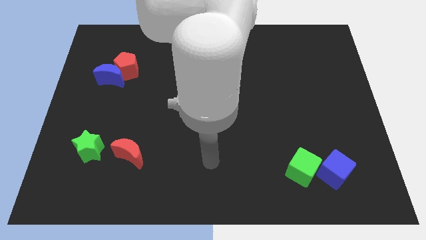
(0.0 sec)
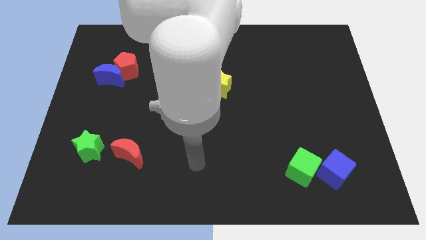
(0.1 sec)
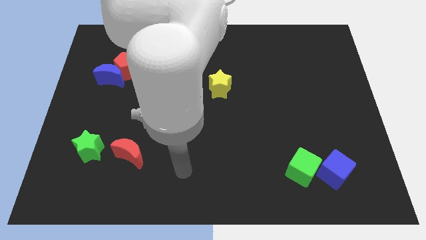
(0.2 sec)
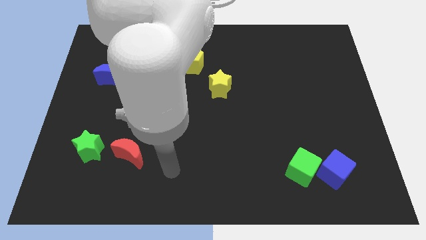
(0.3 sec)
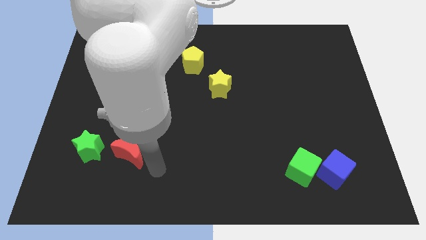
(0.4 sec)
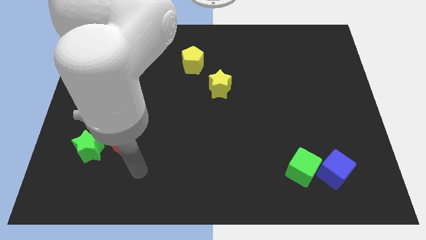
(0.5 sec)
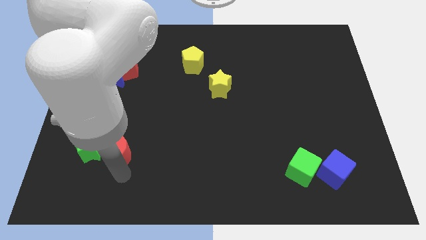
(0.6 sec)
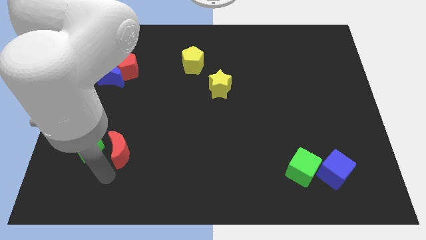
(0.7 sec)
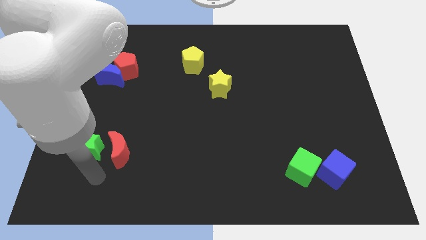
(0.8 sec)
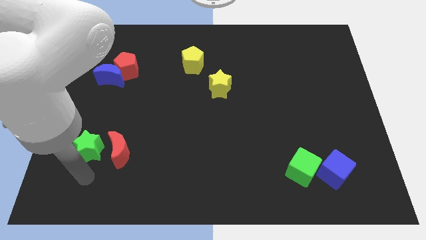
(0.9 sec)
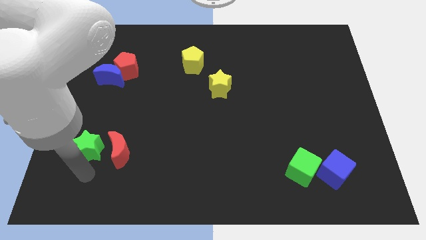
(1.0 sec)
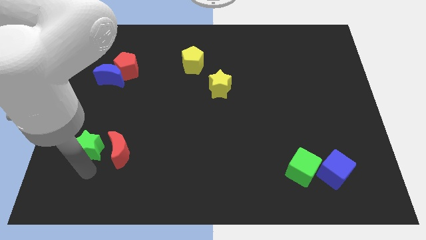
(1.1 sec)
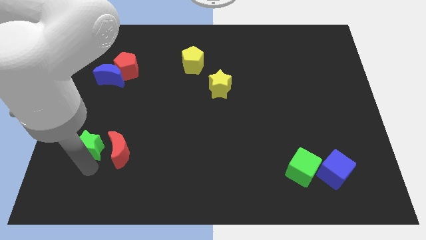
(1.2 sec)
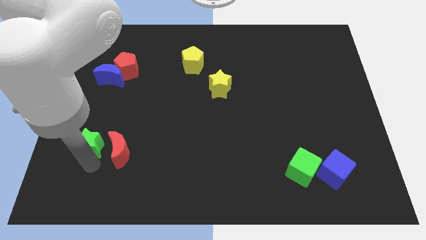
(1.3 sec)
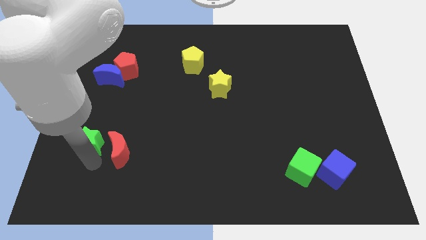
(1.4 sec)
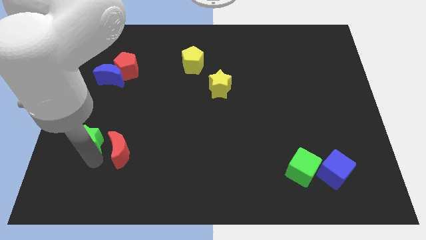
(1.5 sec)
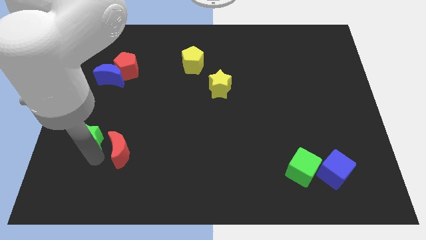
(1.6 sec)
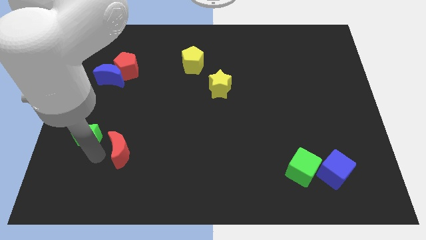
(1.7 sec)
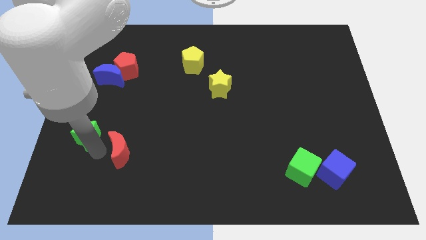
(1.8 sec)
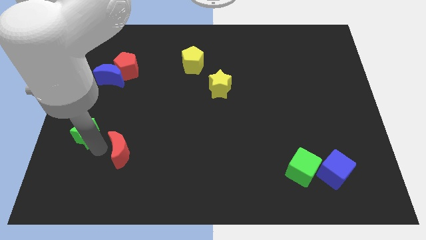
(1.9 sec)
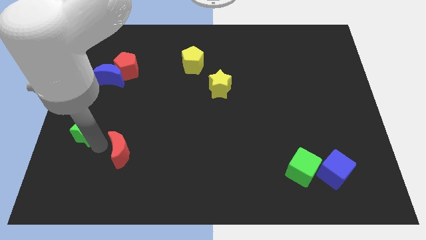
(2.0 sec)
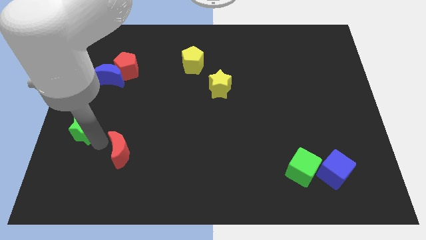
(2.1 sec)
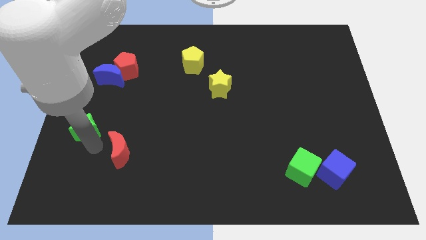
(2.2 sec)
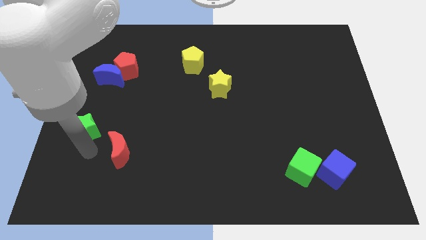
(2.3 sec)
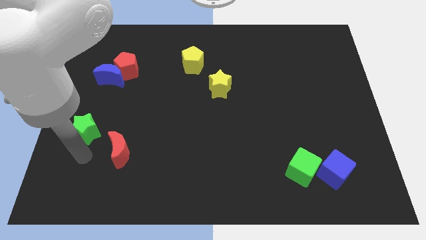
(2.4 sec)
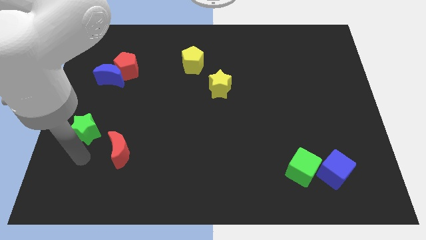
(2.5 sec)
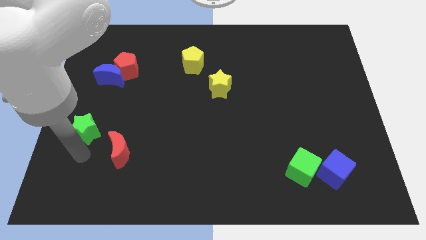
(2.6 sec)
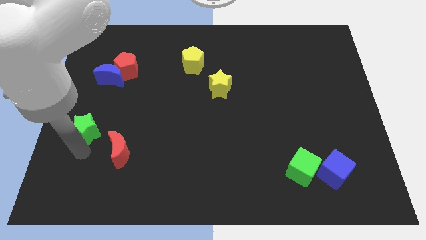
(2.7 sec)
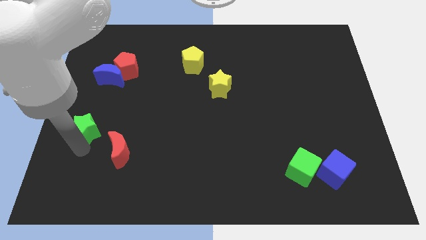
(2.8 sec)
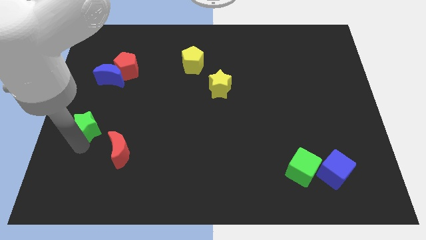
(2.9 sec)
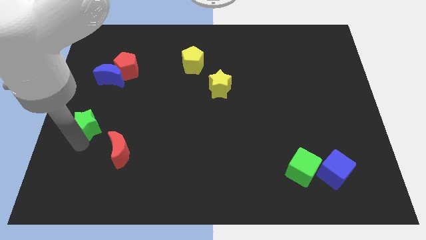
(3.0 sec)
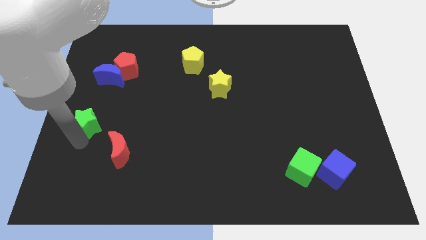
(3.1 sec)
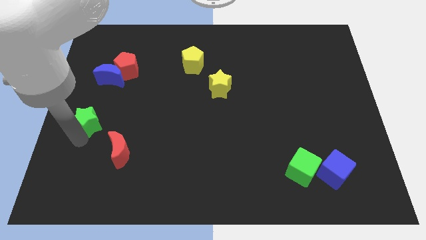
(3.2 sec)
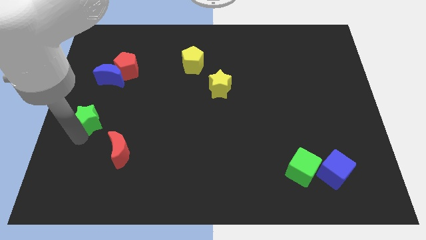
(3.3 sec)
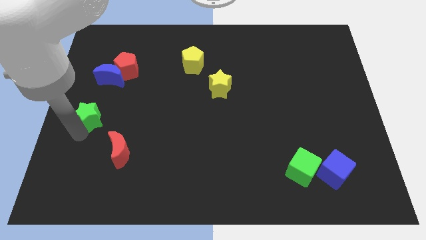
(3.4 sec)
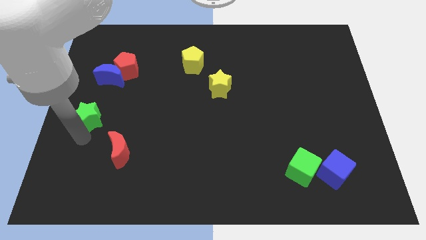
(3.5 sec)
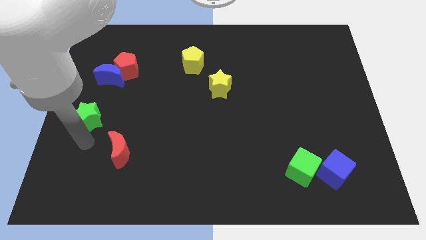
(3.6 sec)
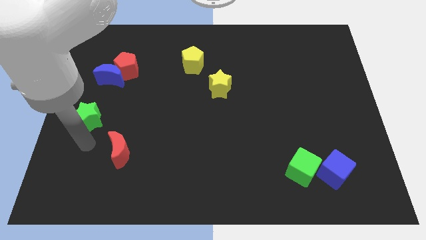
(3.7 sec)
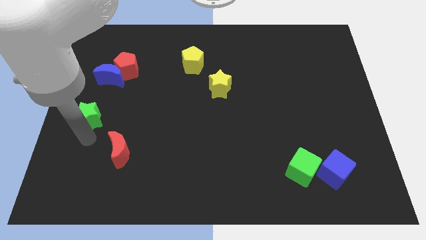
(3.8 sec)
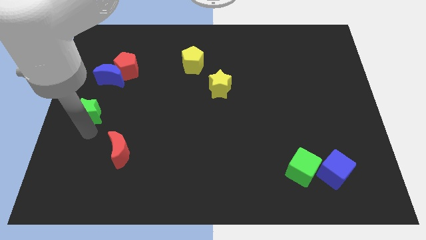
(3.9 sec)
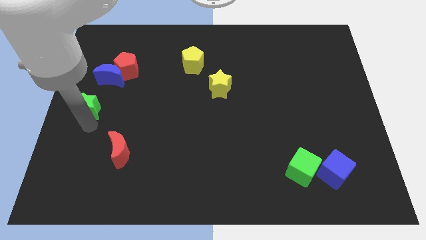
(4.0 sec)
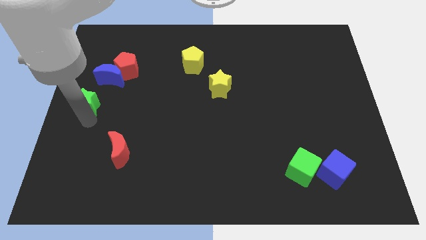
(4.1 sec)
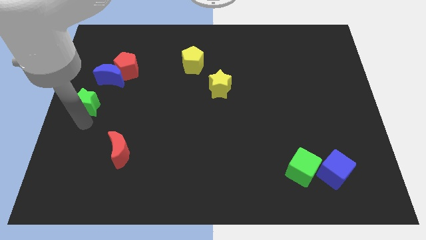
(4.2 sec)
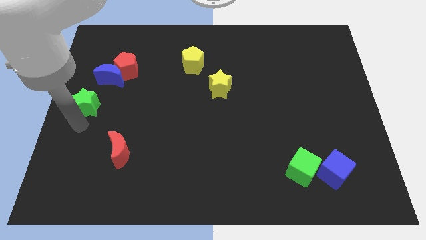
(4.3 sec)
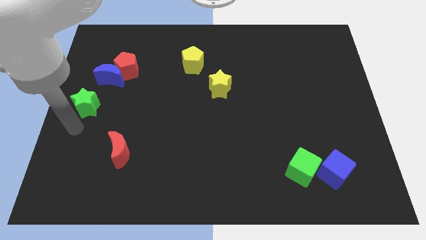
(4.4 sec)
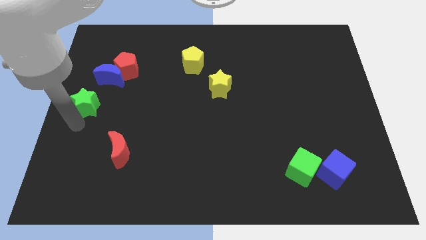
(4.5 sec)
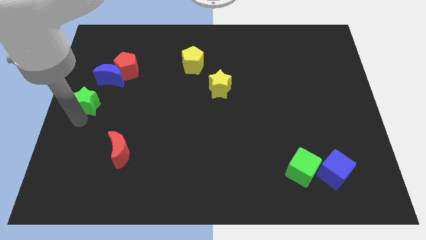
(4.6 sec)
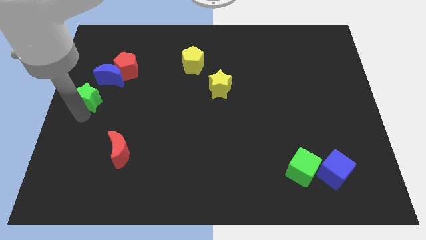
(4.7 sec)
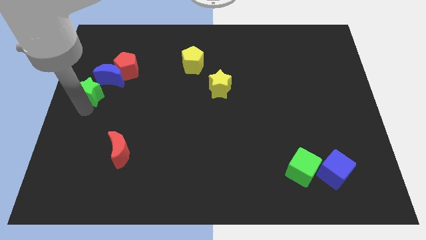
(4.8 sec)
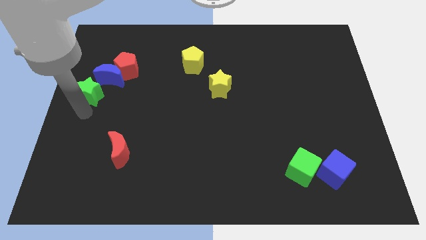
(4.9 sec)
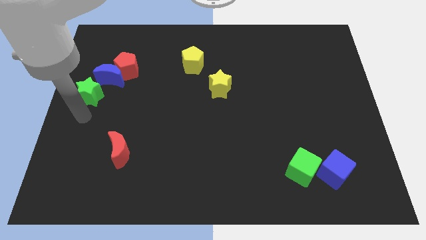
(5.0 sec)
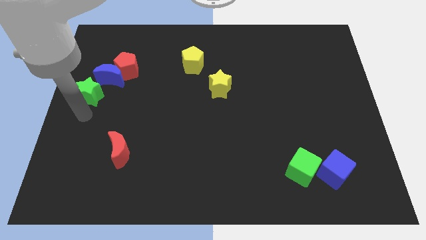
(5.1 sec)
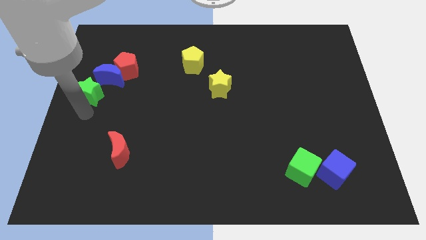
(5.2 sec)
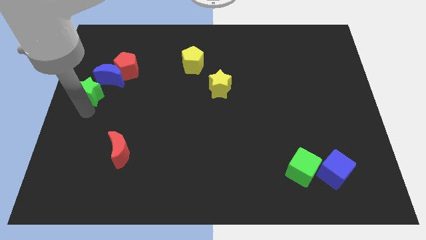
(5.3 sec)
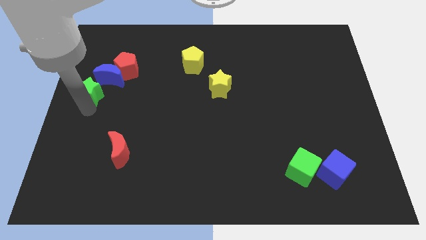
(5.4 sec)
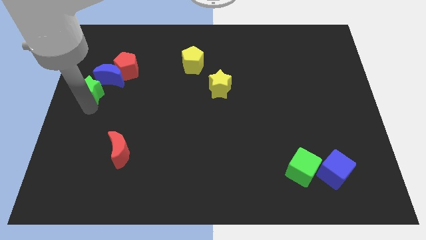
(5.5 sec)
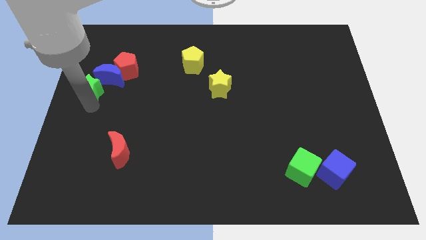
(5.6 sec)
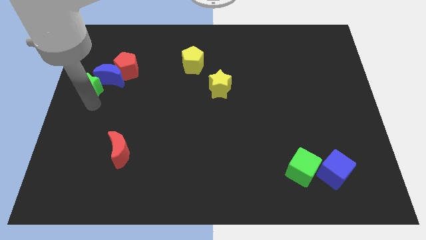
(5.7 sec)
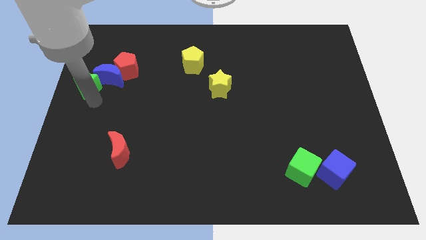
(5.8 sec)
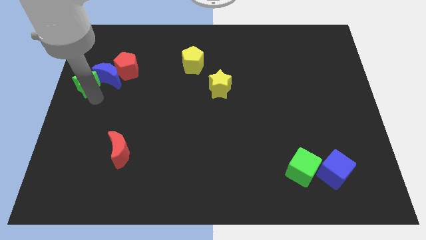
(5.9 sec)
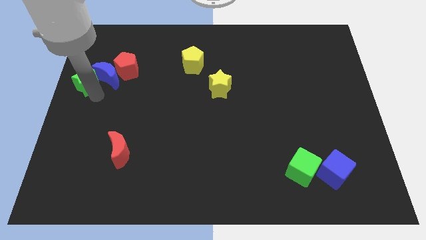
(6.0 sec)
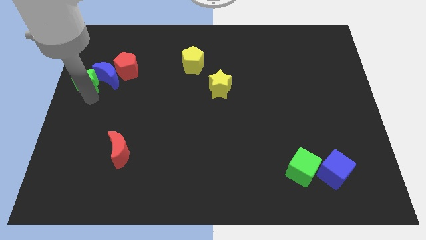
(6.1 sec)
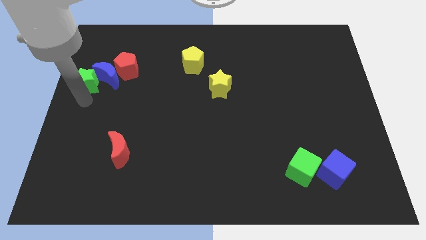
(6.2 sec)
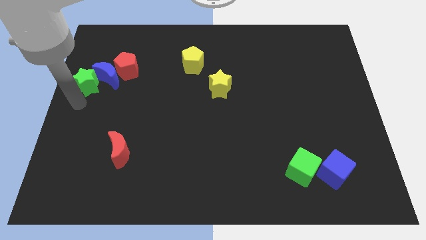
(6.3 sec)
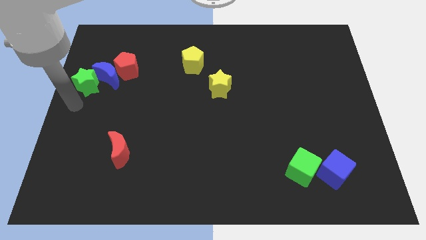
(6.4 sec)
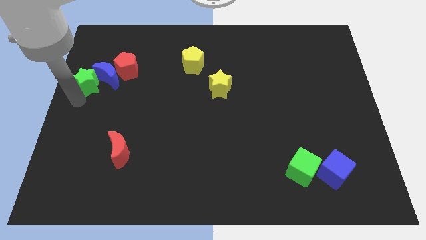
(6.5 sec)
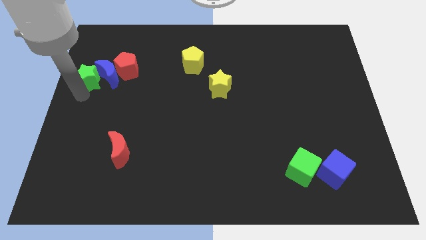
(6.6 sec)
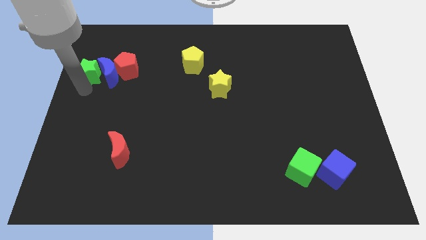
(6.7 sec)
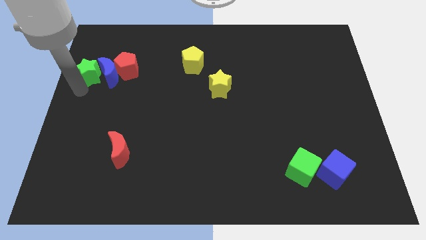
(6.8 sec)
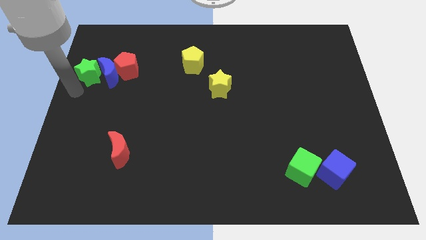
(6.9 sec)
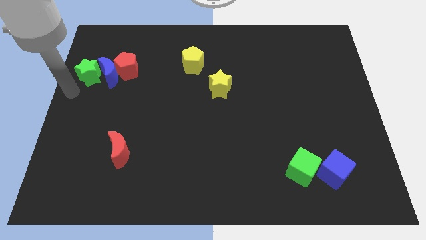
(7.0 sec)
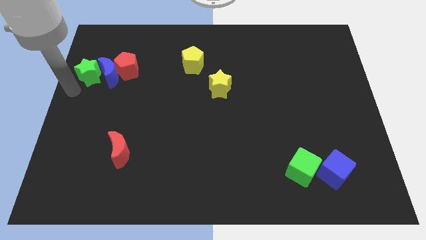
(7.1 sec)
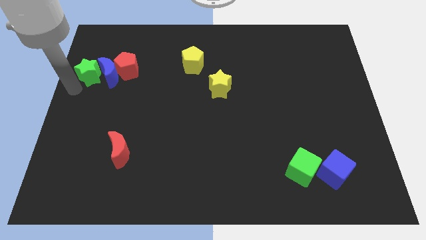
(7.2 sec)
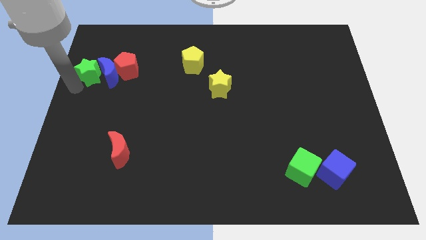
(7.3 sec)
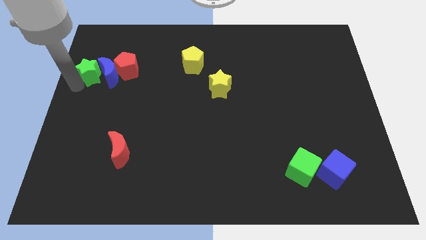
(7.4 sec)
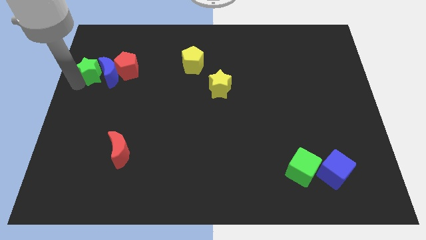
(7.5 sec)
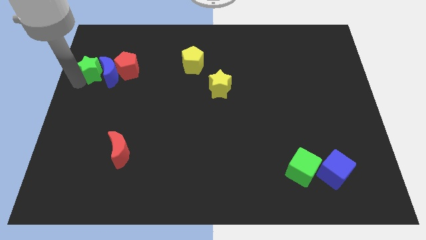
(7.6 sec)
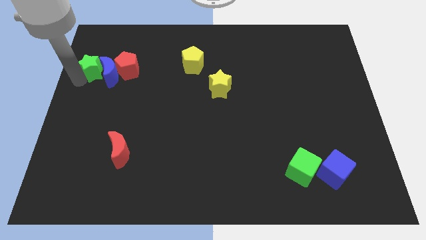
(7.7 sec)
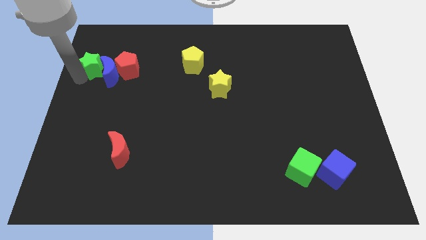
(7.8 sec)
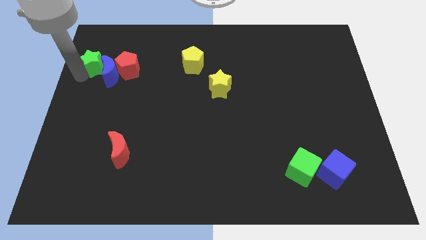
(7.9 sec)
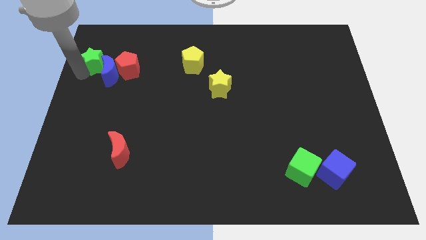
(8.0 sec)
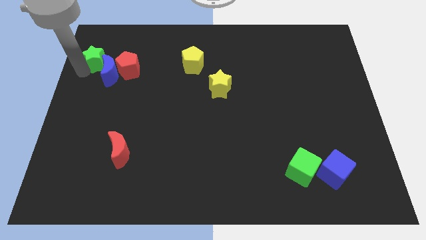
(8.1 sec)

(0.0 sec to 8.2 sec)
slide the green star diagonally up and to the left of the red pentagon
